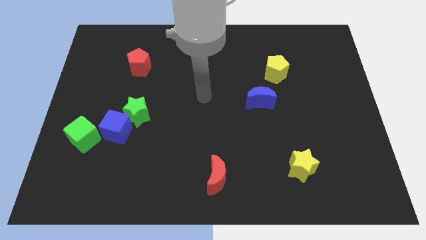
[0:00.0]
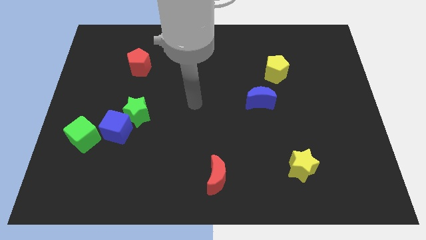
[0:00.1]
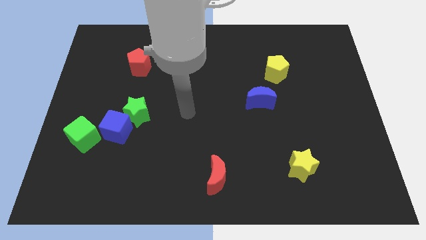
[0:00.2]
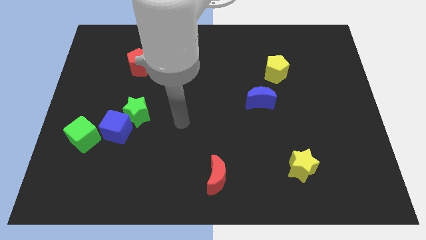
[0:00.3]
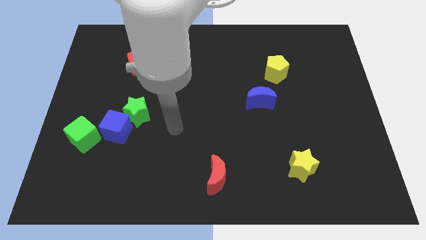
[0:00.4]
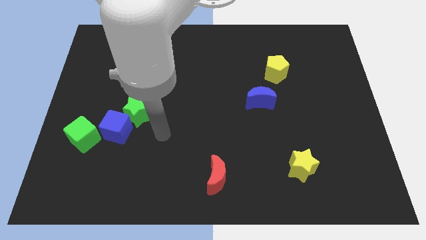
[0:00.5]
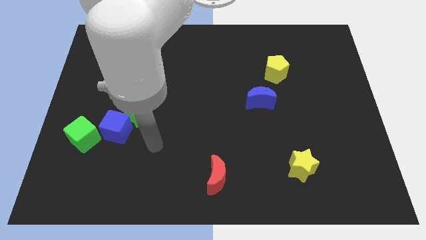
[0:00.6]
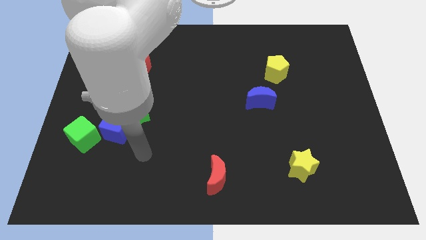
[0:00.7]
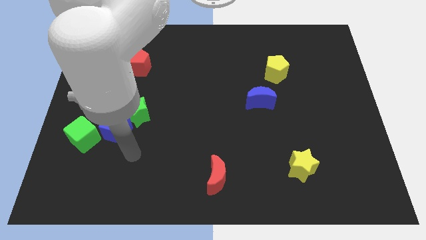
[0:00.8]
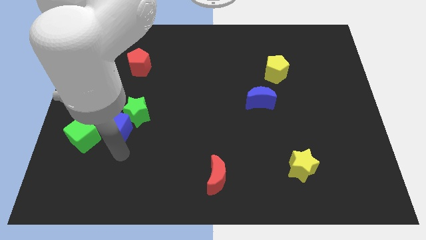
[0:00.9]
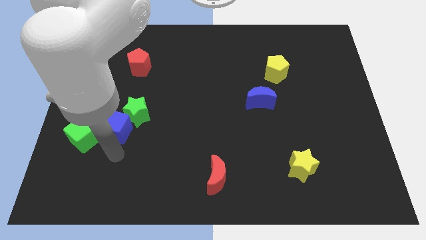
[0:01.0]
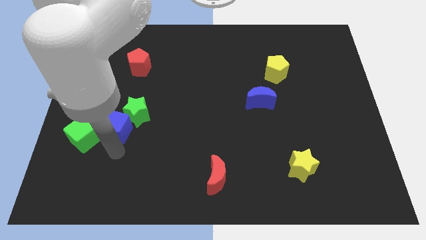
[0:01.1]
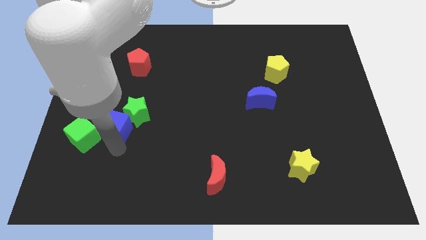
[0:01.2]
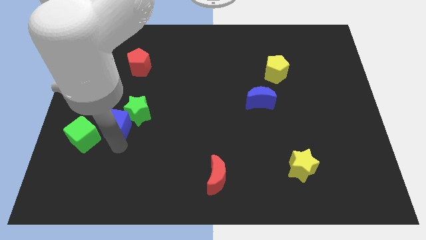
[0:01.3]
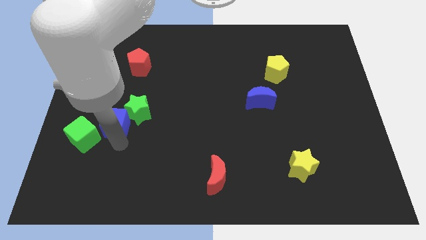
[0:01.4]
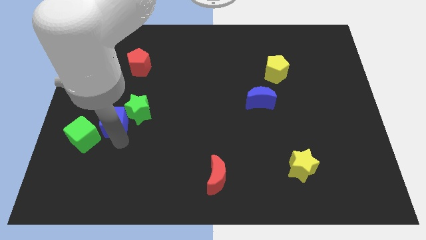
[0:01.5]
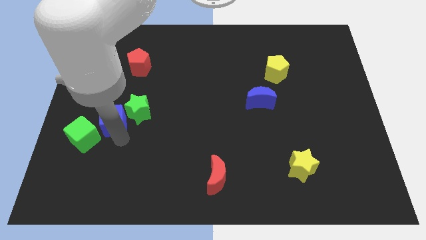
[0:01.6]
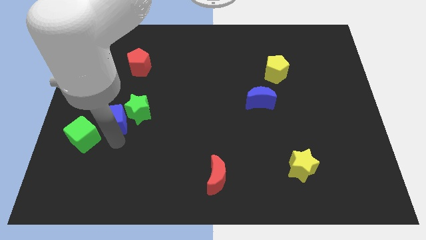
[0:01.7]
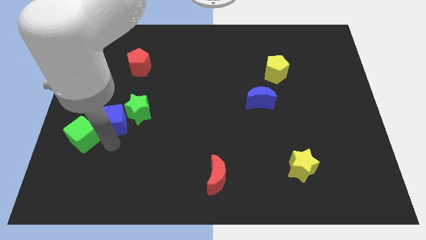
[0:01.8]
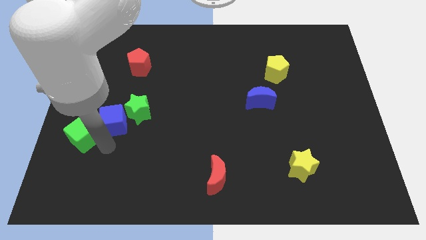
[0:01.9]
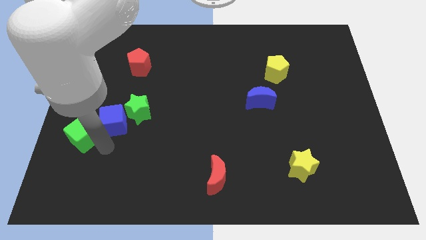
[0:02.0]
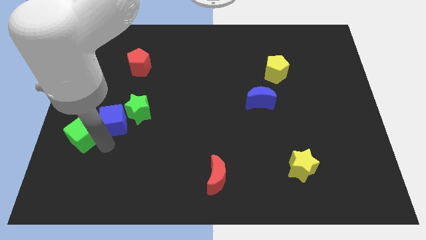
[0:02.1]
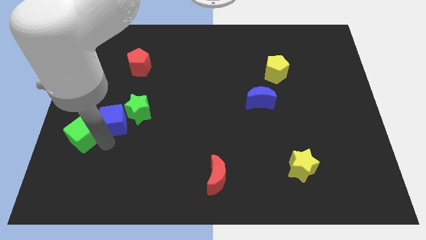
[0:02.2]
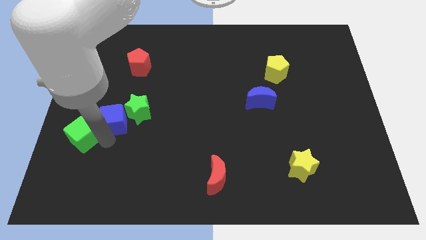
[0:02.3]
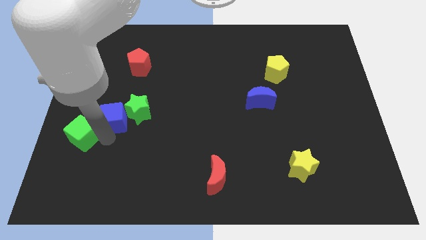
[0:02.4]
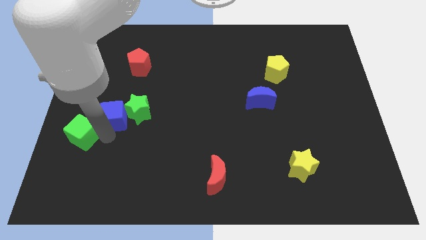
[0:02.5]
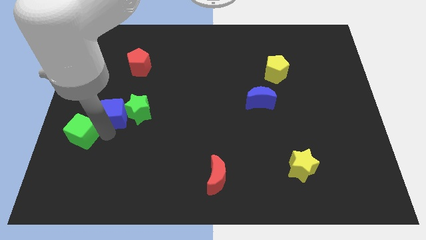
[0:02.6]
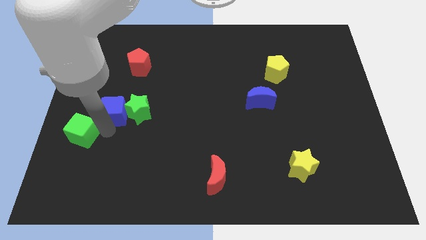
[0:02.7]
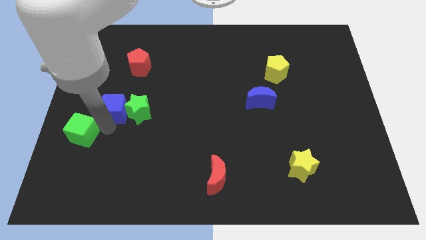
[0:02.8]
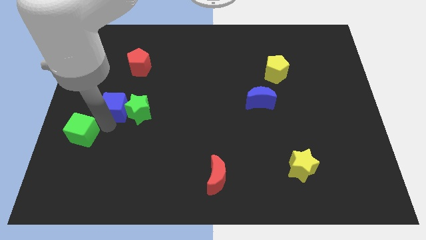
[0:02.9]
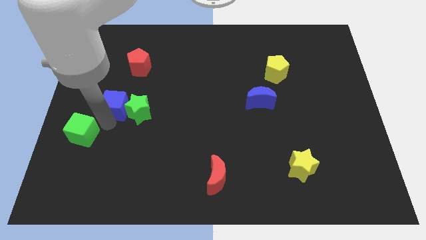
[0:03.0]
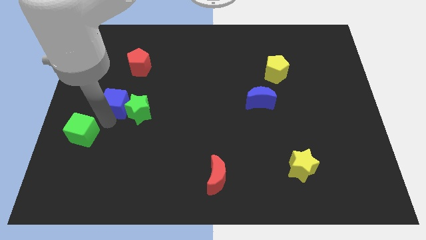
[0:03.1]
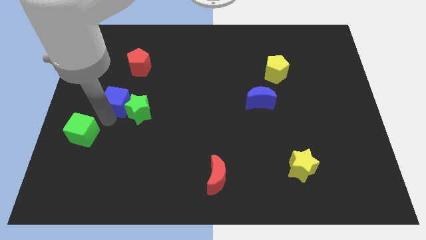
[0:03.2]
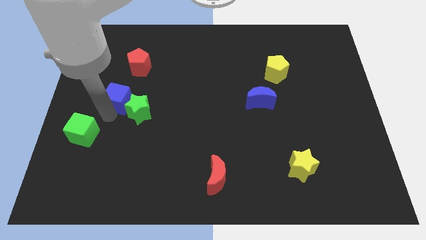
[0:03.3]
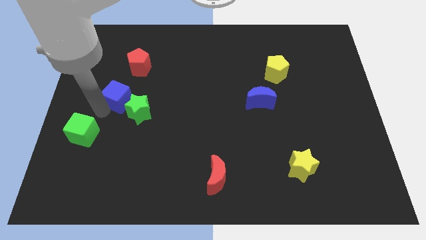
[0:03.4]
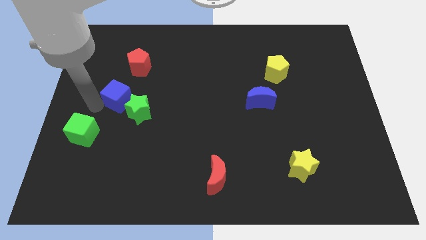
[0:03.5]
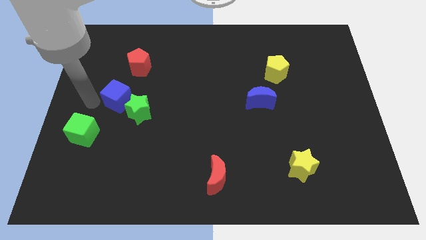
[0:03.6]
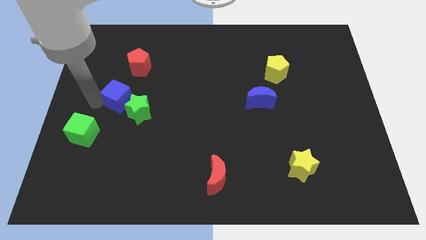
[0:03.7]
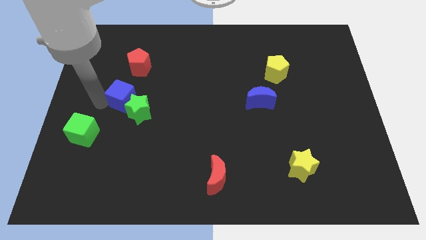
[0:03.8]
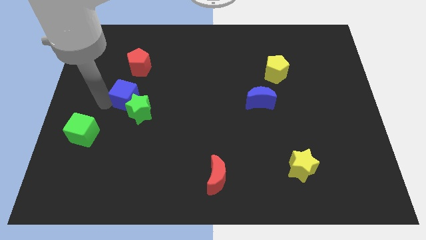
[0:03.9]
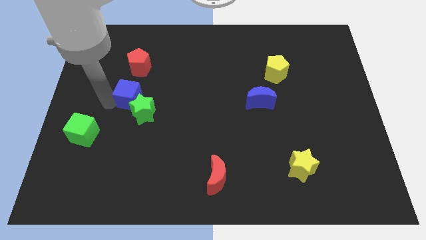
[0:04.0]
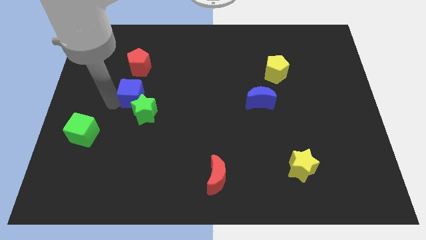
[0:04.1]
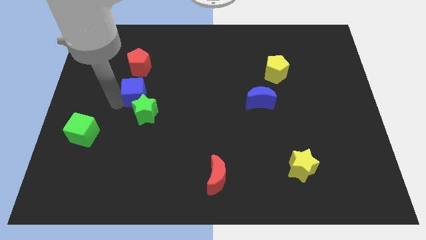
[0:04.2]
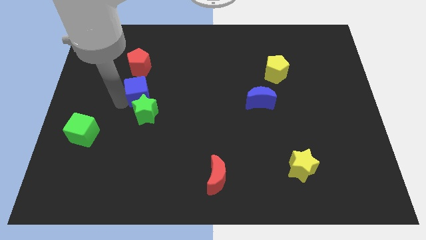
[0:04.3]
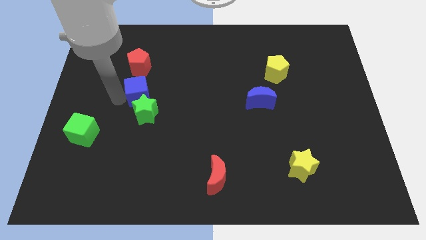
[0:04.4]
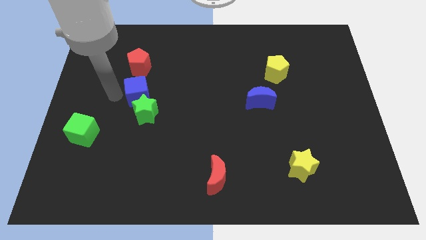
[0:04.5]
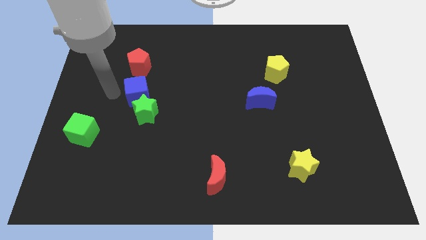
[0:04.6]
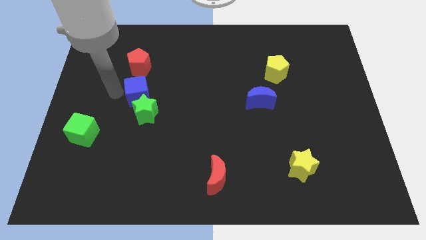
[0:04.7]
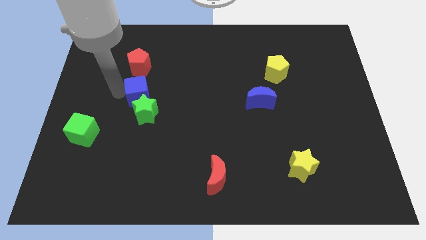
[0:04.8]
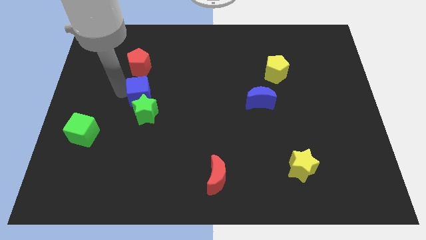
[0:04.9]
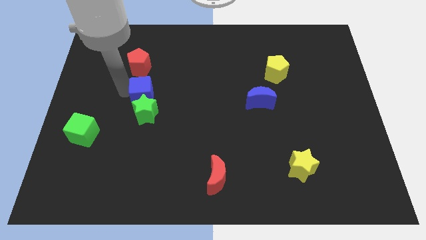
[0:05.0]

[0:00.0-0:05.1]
push the blue cube to the top right side of the green star

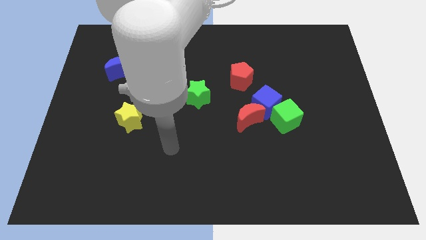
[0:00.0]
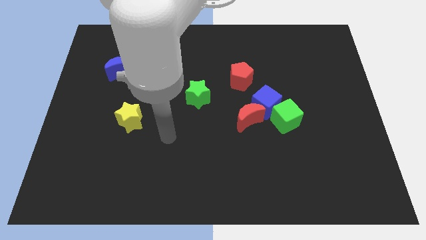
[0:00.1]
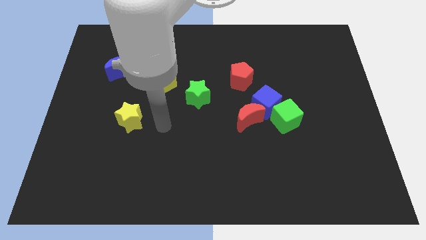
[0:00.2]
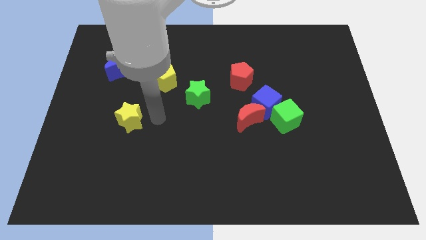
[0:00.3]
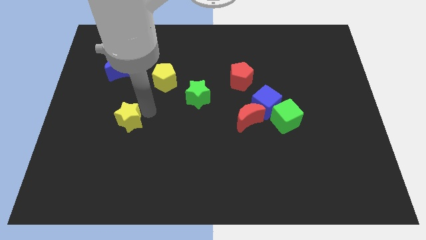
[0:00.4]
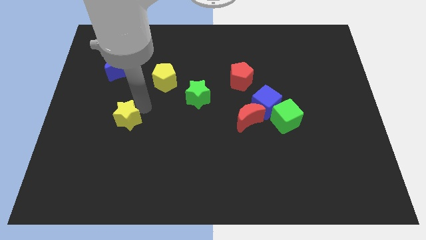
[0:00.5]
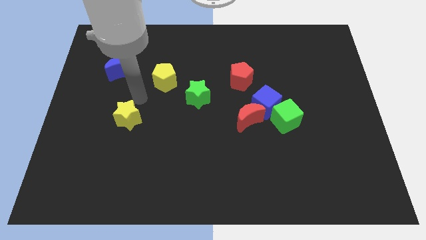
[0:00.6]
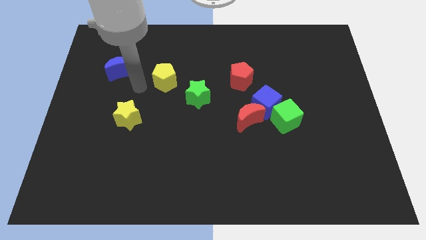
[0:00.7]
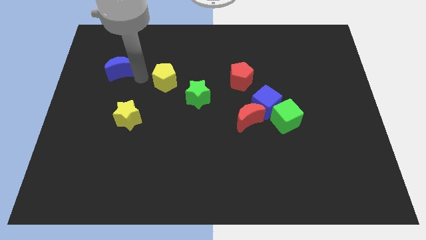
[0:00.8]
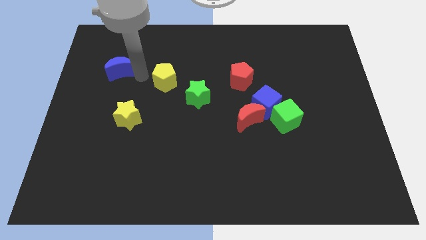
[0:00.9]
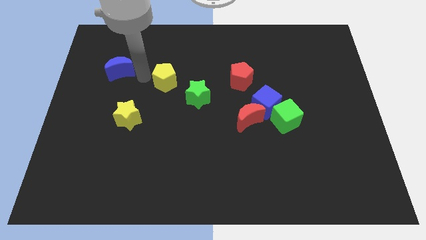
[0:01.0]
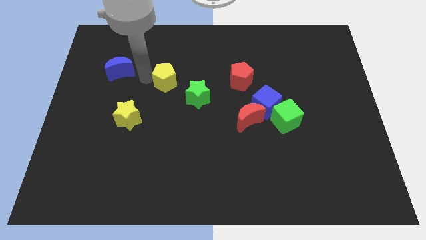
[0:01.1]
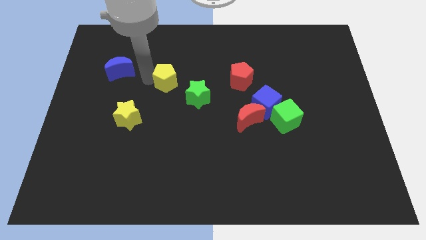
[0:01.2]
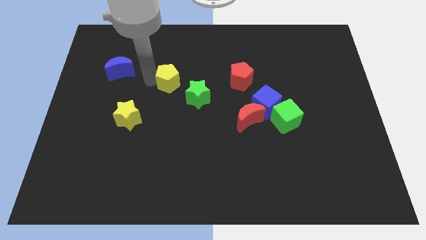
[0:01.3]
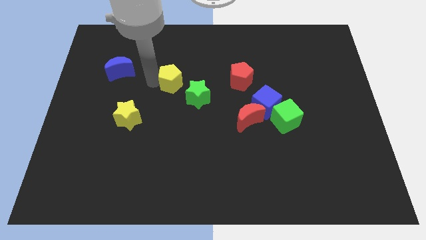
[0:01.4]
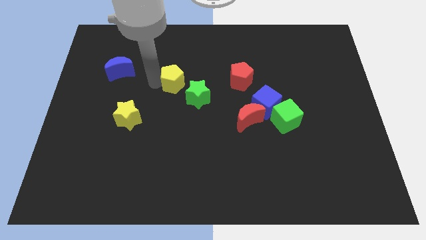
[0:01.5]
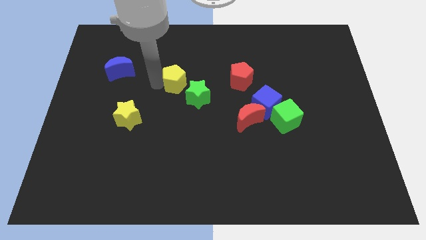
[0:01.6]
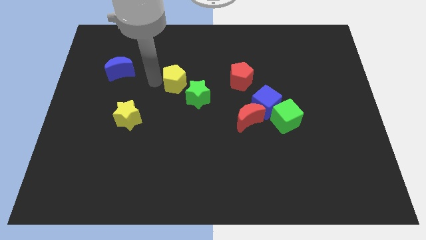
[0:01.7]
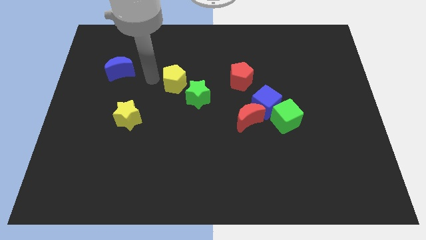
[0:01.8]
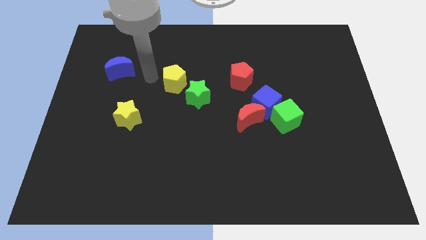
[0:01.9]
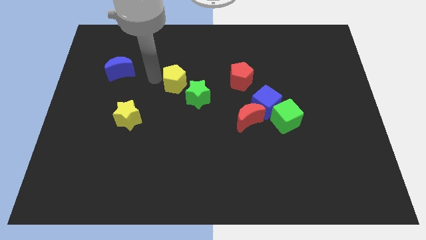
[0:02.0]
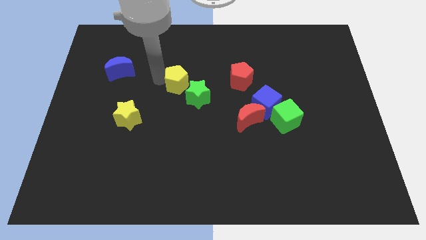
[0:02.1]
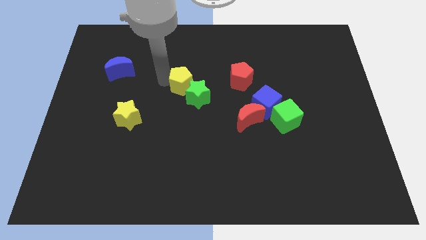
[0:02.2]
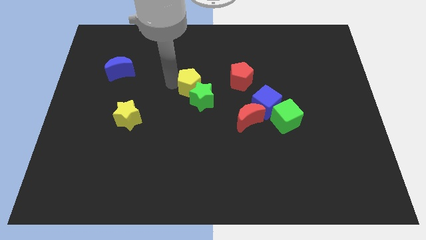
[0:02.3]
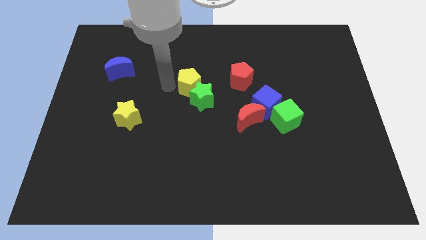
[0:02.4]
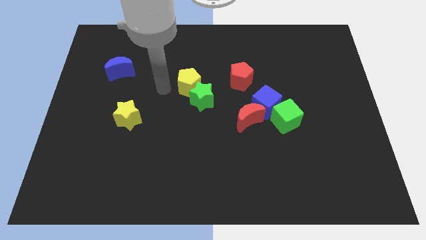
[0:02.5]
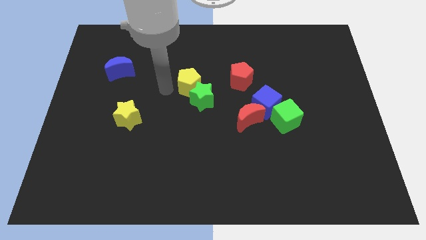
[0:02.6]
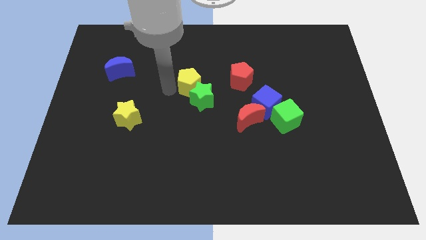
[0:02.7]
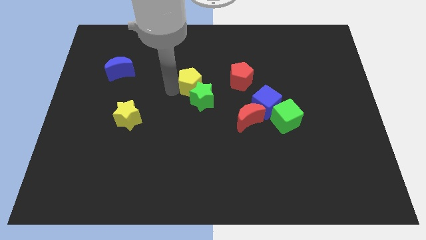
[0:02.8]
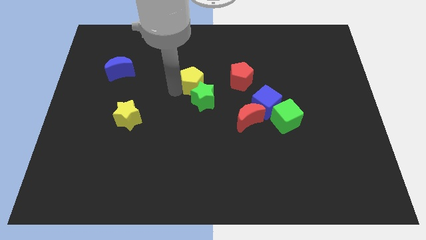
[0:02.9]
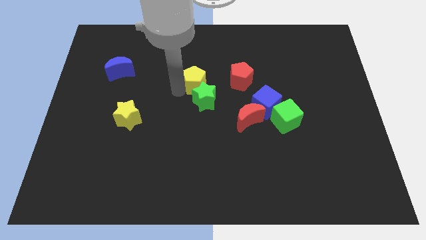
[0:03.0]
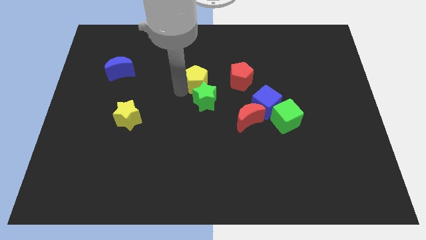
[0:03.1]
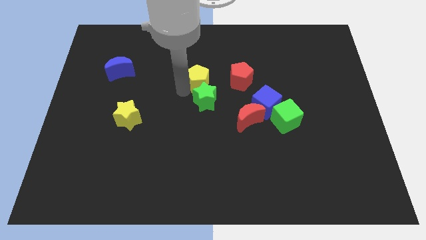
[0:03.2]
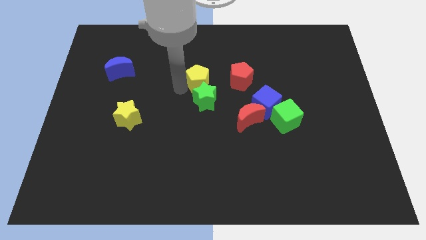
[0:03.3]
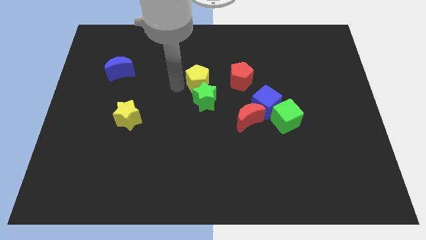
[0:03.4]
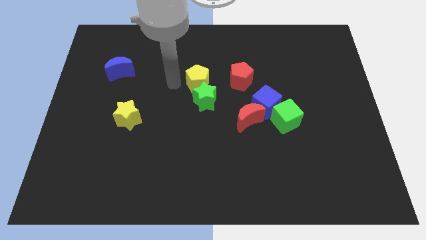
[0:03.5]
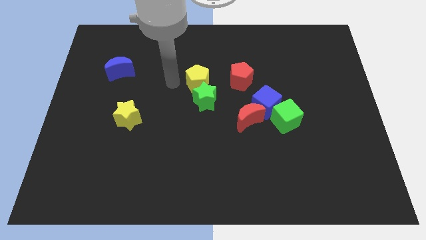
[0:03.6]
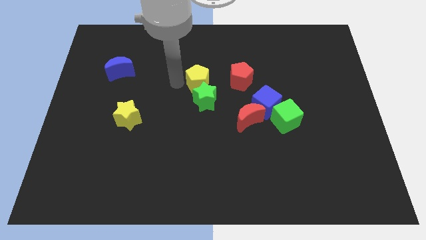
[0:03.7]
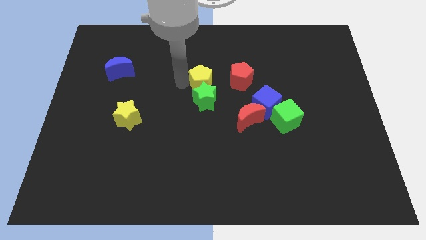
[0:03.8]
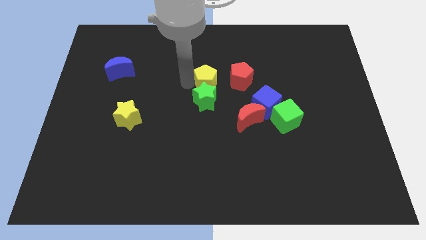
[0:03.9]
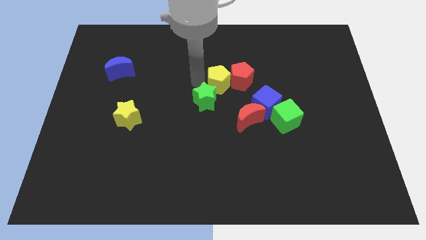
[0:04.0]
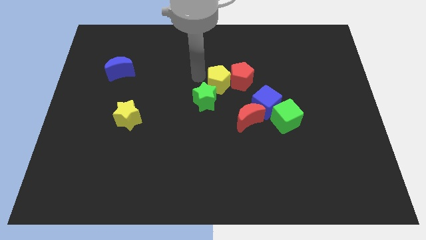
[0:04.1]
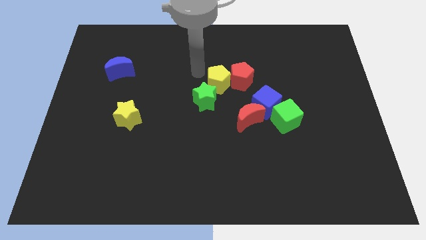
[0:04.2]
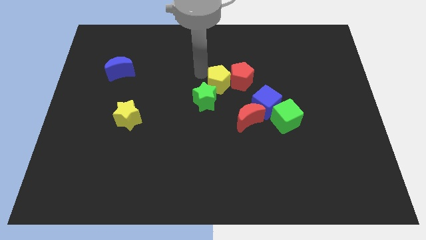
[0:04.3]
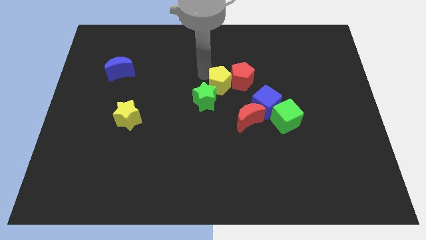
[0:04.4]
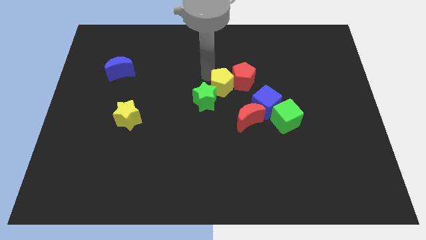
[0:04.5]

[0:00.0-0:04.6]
push the yellow pentagon to the right side of the green star
